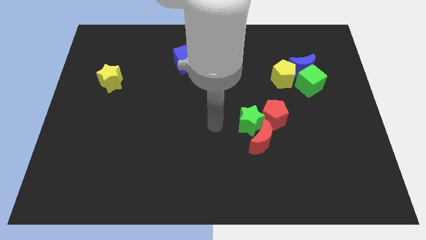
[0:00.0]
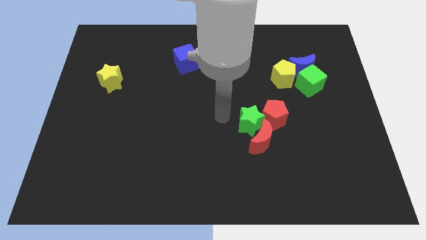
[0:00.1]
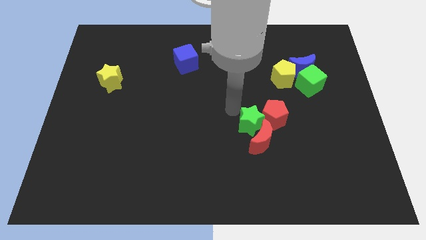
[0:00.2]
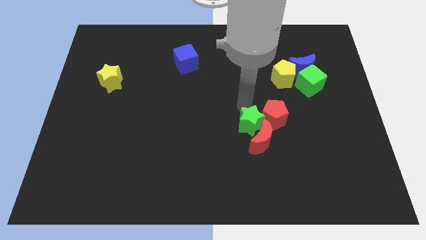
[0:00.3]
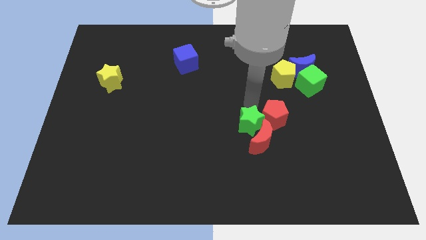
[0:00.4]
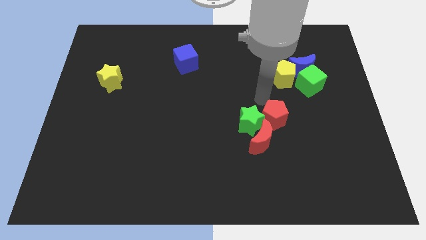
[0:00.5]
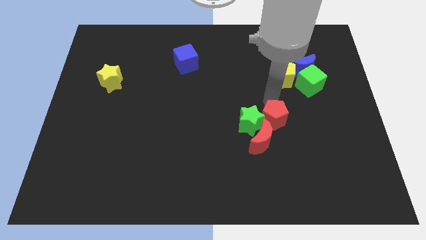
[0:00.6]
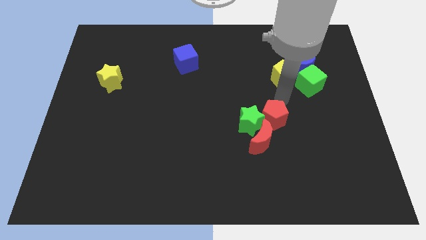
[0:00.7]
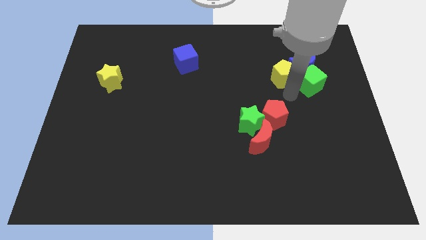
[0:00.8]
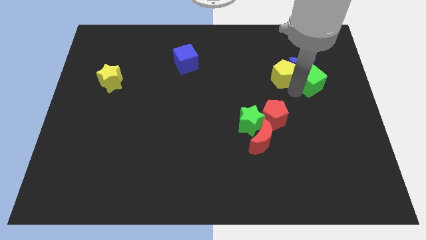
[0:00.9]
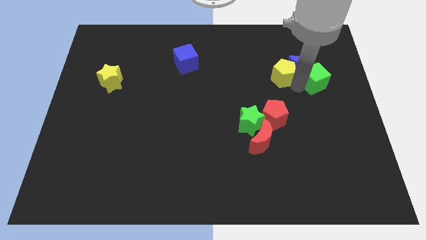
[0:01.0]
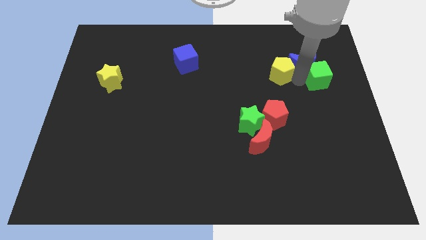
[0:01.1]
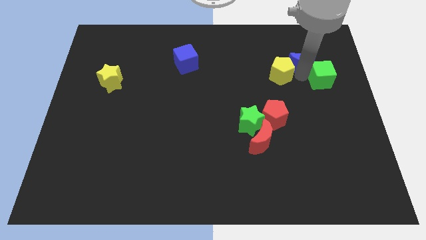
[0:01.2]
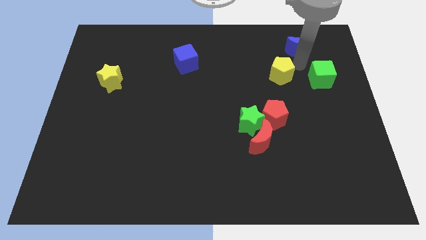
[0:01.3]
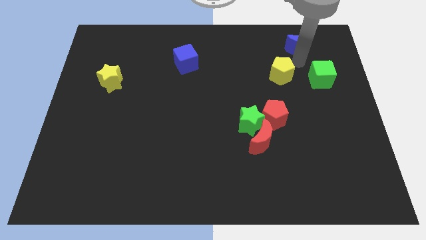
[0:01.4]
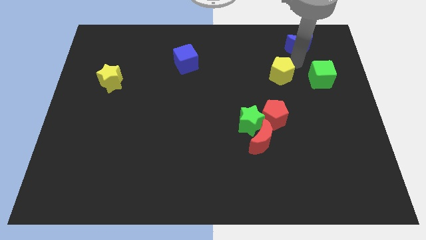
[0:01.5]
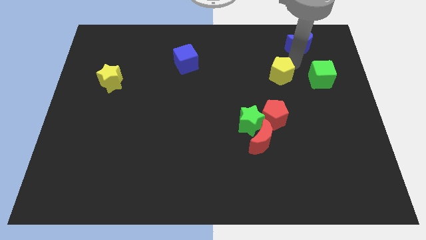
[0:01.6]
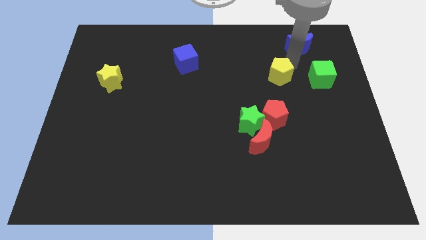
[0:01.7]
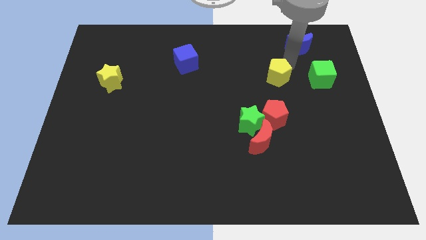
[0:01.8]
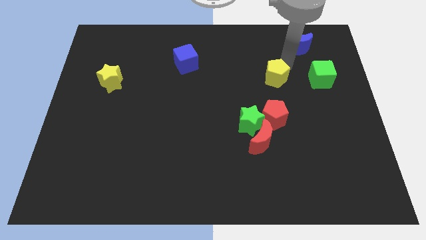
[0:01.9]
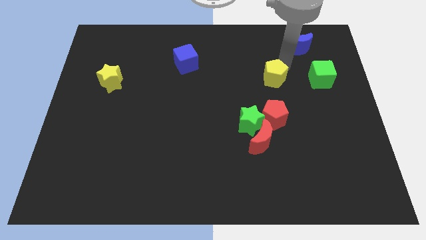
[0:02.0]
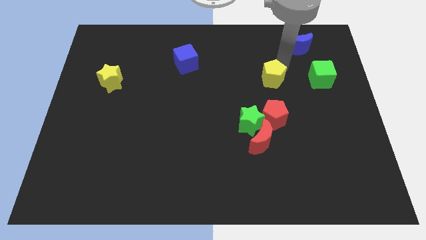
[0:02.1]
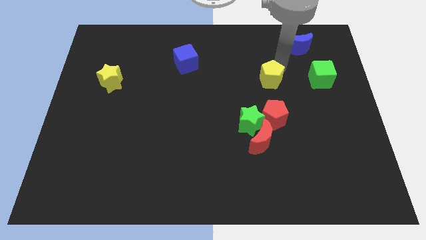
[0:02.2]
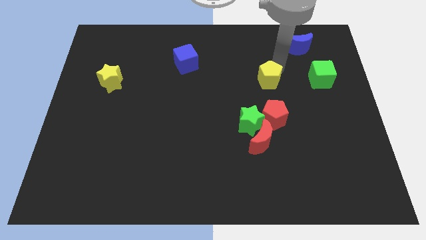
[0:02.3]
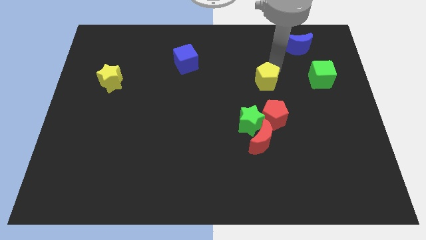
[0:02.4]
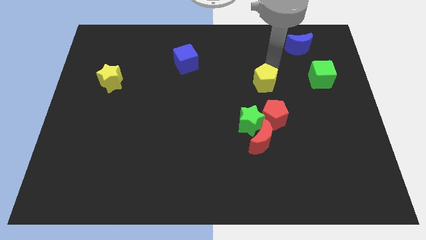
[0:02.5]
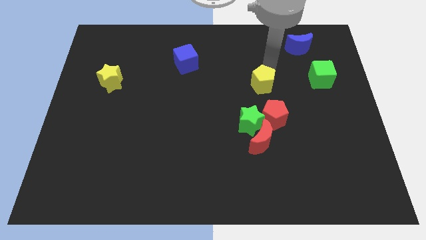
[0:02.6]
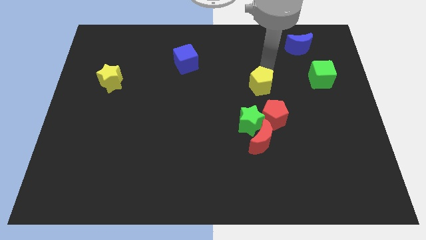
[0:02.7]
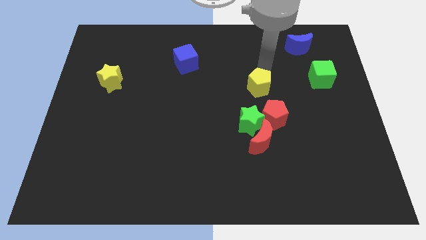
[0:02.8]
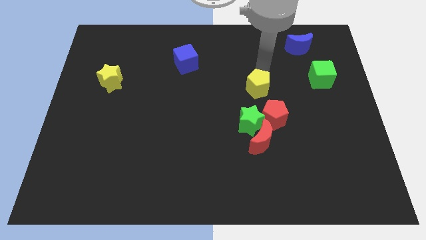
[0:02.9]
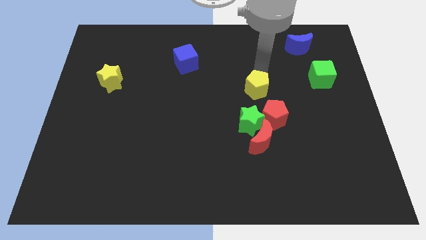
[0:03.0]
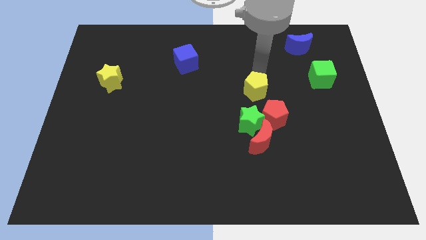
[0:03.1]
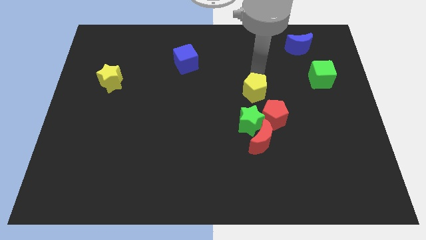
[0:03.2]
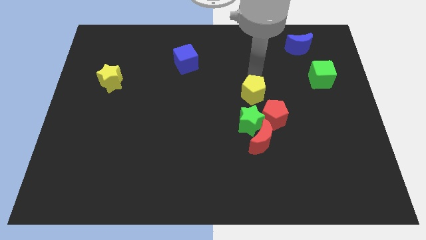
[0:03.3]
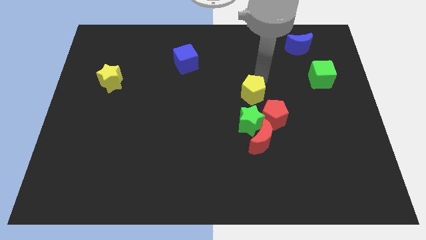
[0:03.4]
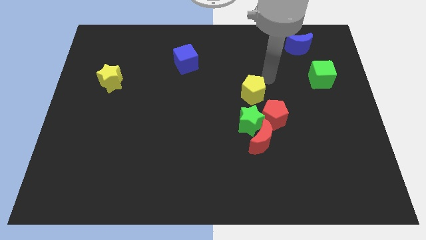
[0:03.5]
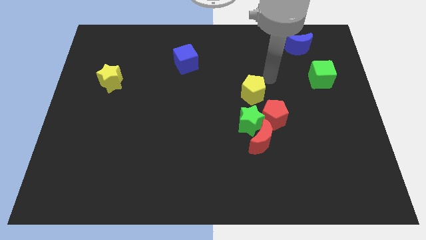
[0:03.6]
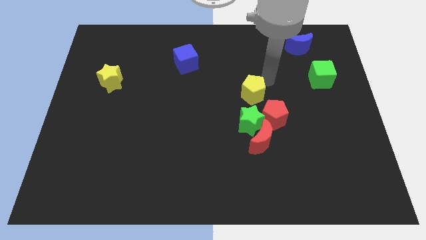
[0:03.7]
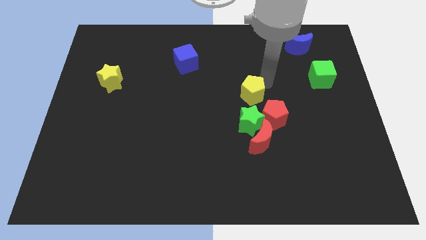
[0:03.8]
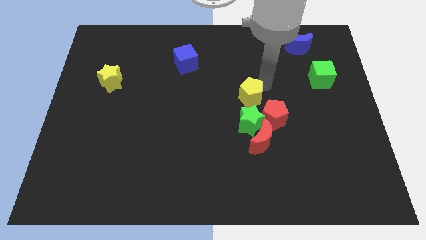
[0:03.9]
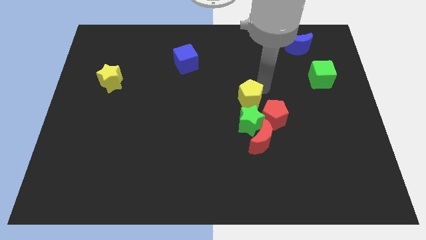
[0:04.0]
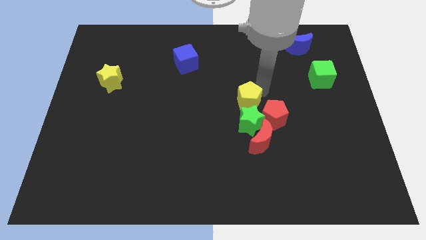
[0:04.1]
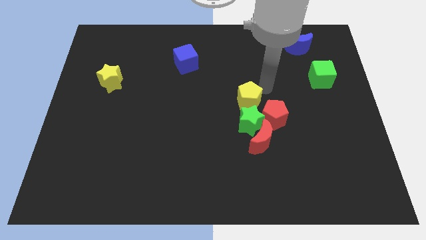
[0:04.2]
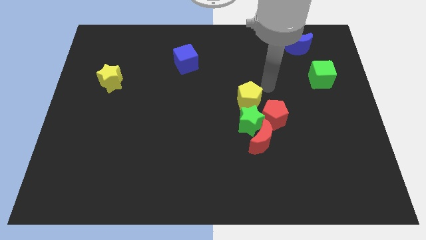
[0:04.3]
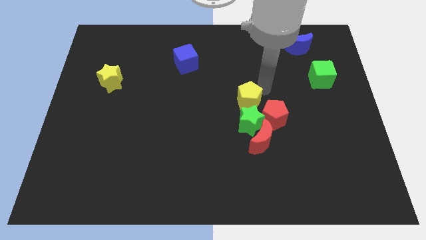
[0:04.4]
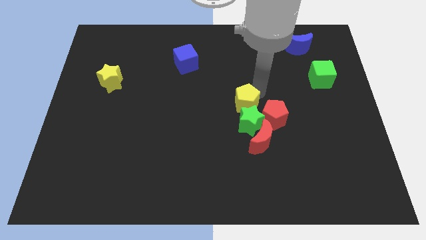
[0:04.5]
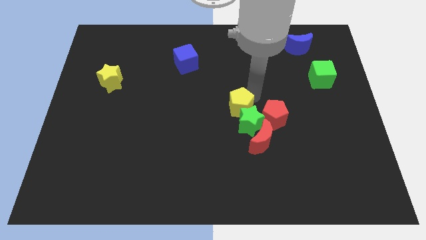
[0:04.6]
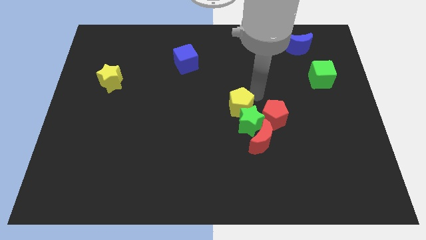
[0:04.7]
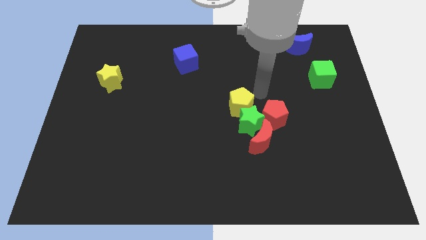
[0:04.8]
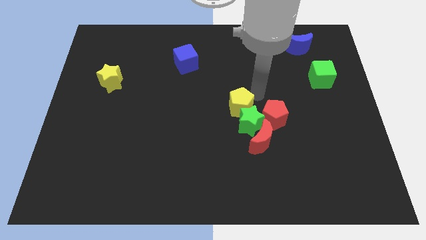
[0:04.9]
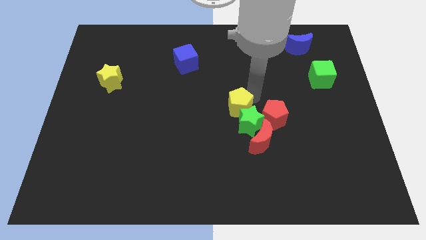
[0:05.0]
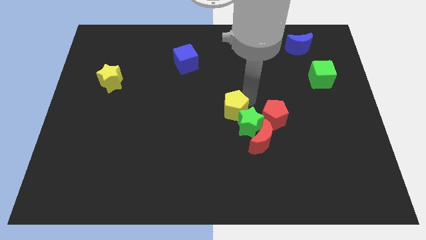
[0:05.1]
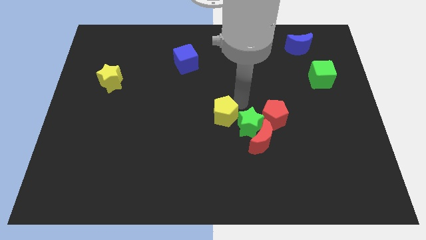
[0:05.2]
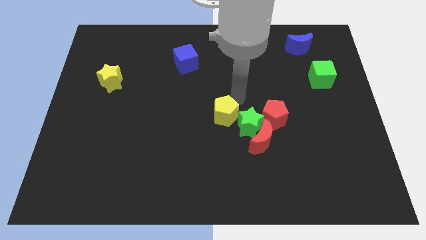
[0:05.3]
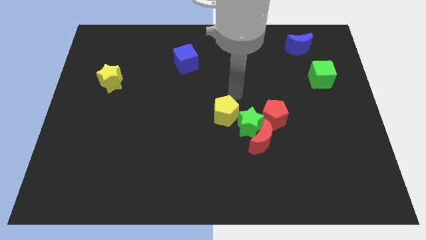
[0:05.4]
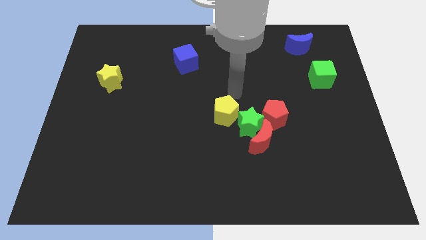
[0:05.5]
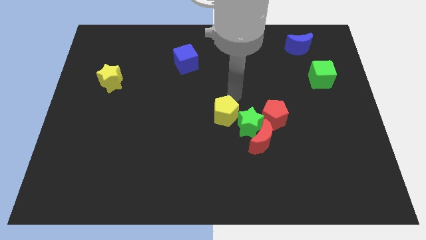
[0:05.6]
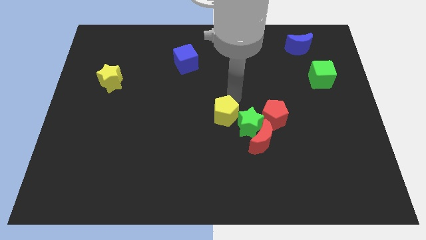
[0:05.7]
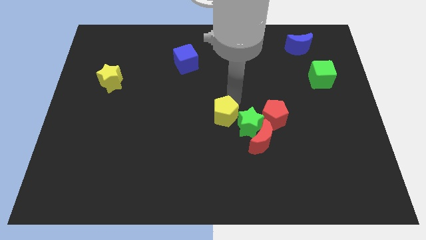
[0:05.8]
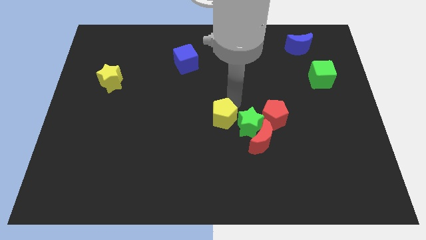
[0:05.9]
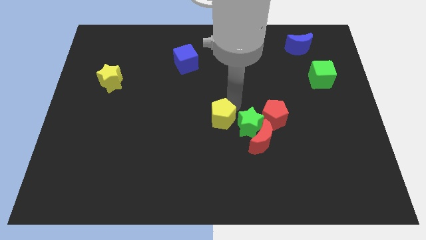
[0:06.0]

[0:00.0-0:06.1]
move the yellow pentagon diagonally down and left

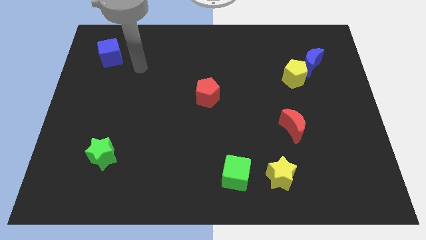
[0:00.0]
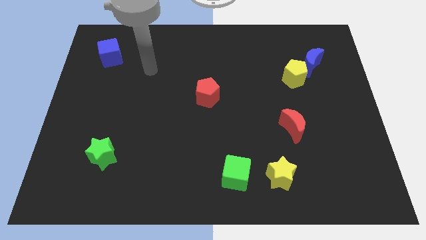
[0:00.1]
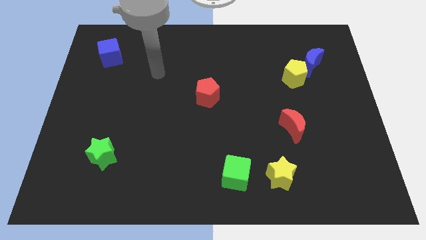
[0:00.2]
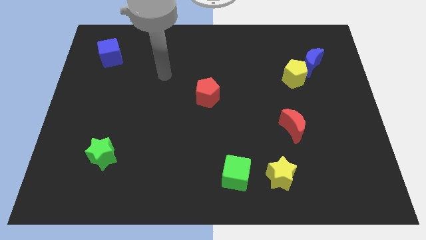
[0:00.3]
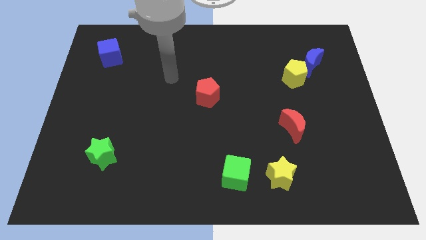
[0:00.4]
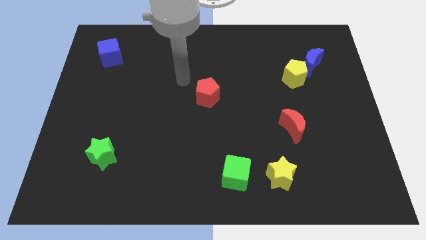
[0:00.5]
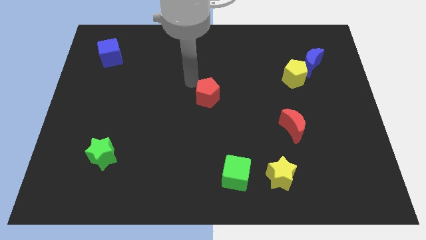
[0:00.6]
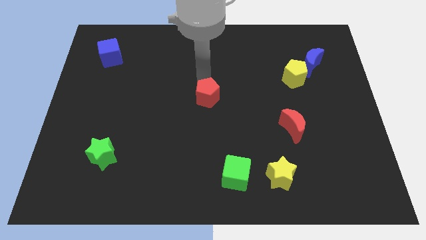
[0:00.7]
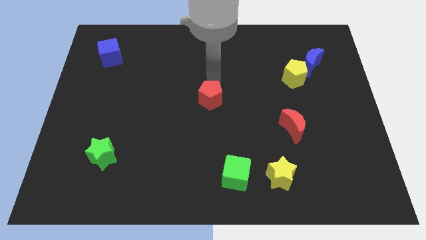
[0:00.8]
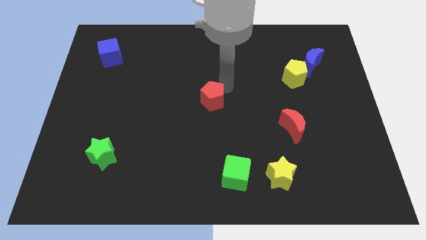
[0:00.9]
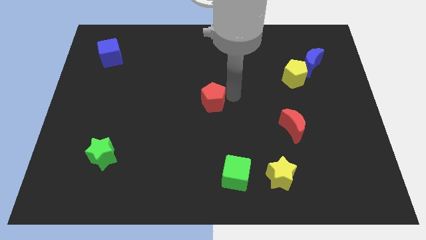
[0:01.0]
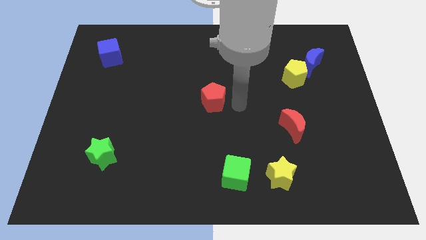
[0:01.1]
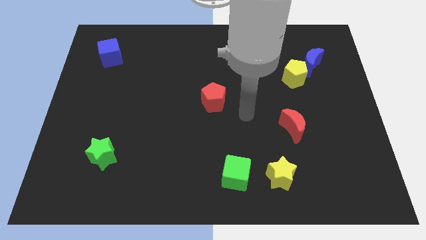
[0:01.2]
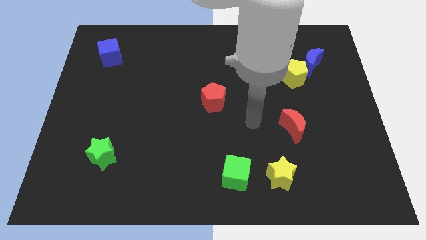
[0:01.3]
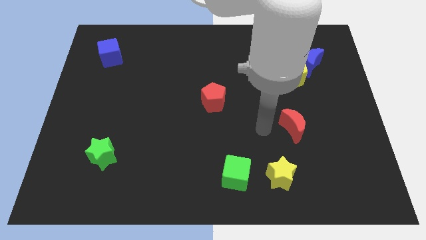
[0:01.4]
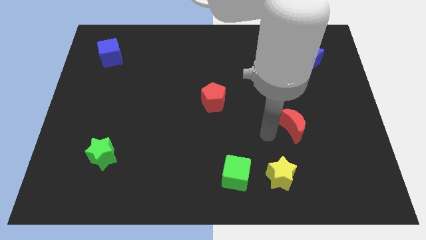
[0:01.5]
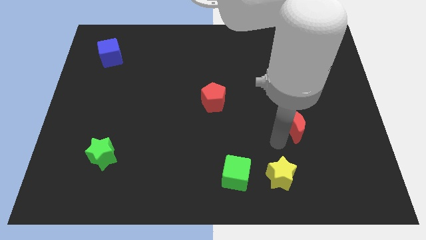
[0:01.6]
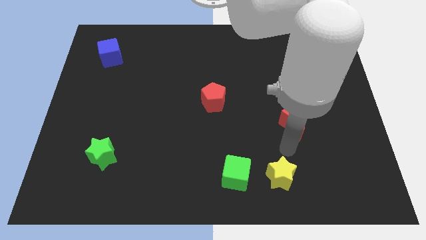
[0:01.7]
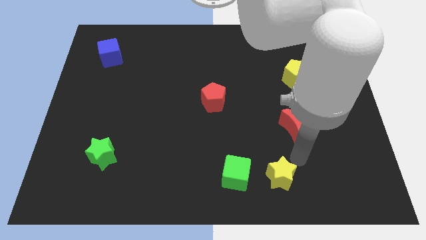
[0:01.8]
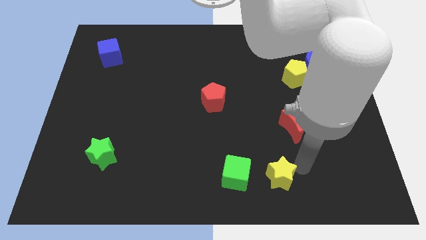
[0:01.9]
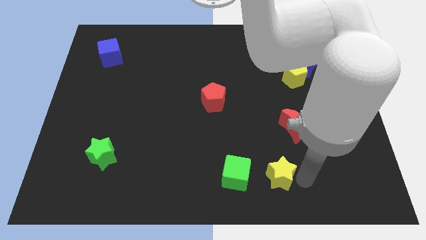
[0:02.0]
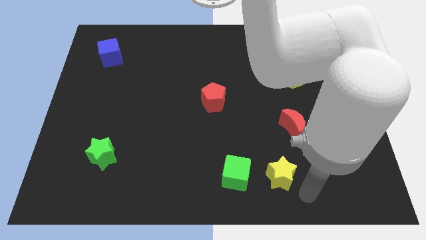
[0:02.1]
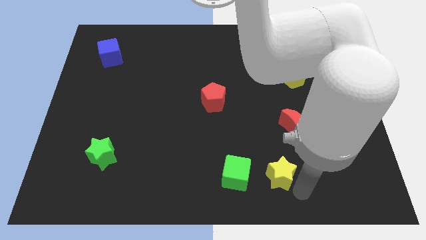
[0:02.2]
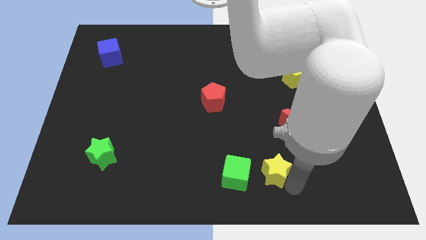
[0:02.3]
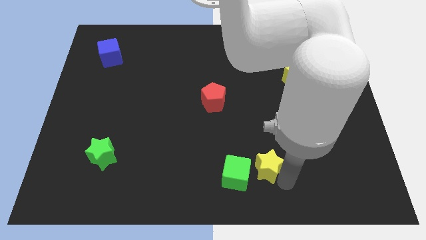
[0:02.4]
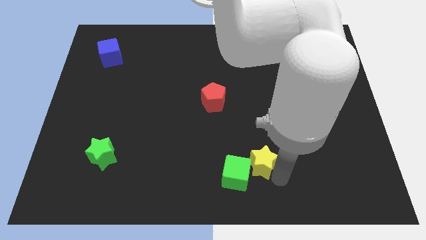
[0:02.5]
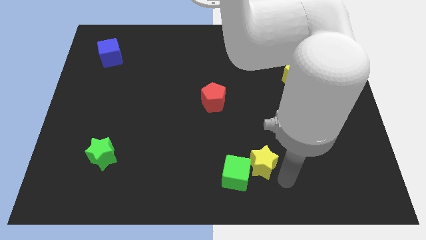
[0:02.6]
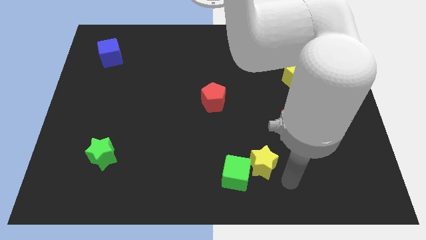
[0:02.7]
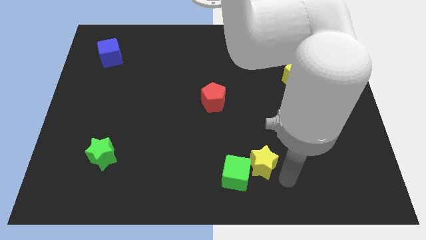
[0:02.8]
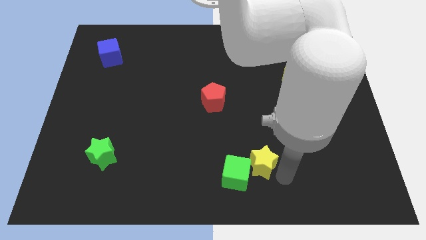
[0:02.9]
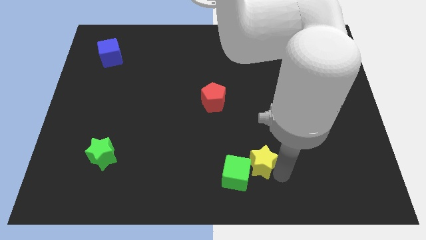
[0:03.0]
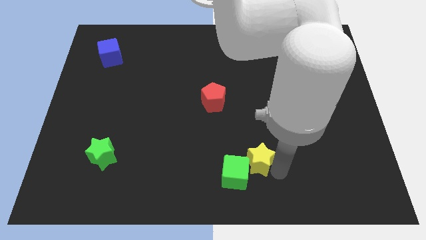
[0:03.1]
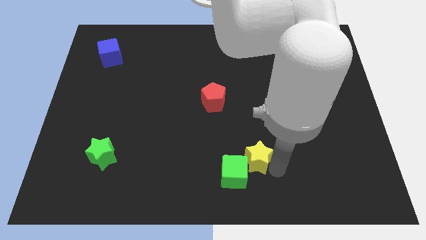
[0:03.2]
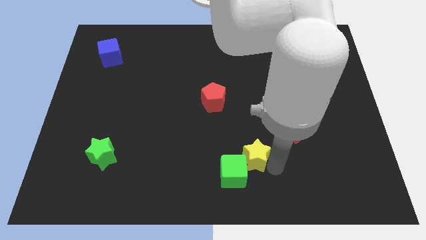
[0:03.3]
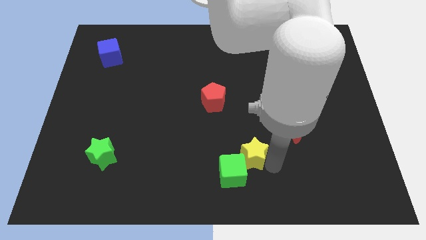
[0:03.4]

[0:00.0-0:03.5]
slide the yellow star a little bit upwards and left
